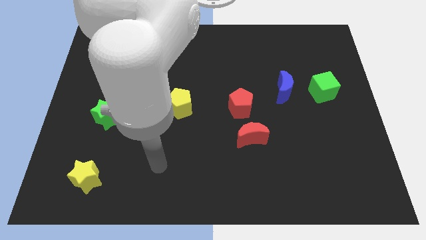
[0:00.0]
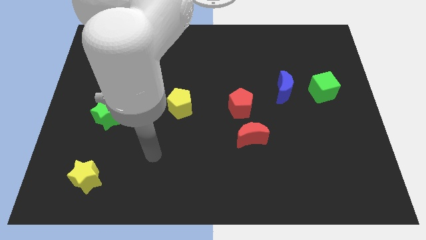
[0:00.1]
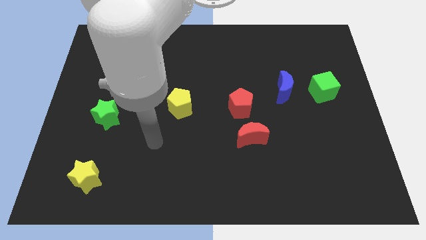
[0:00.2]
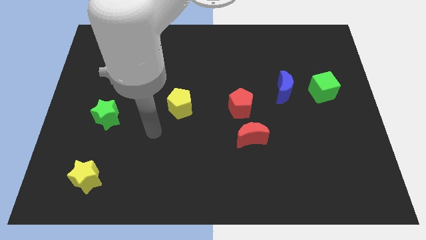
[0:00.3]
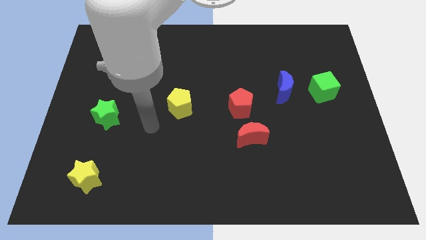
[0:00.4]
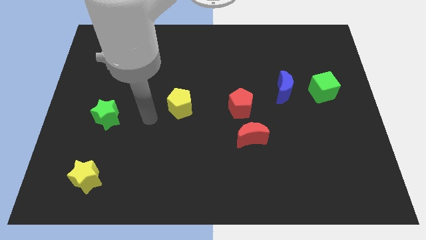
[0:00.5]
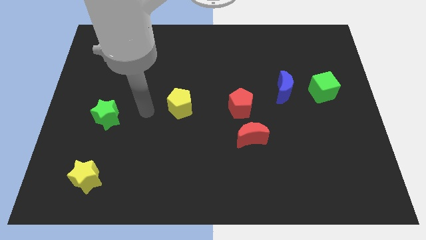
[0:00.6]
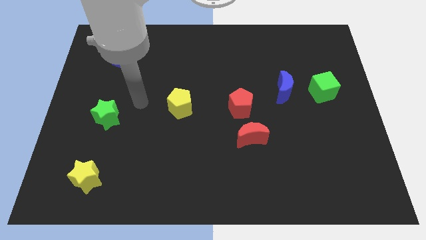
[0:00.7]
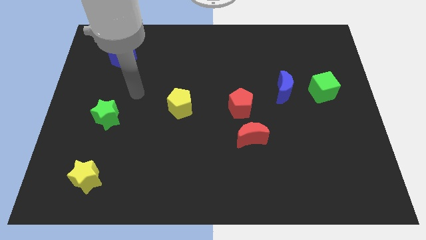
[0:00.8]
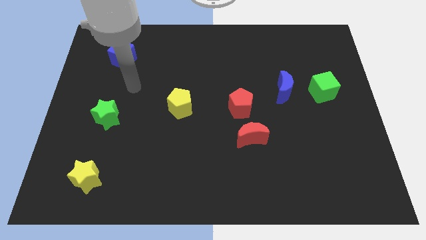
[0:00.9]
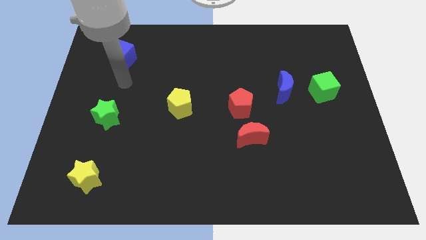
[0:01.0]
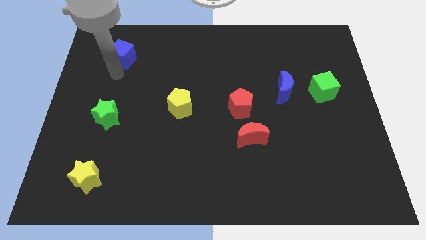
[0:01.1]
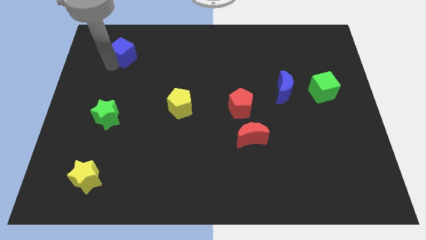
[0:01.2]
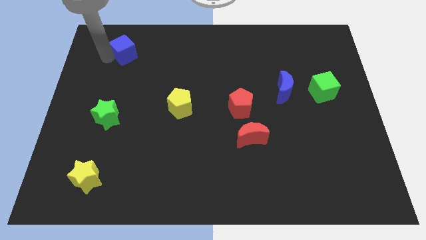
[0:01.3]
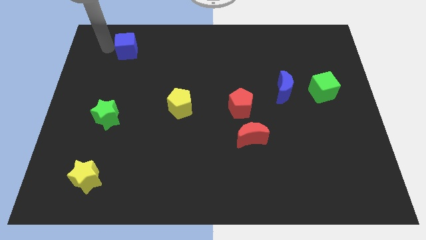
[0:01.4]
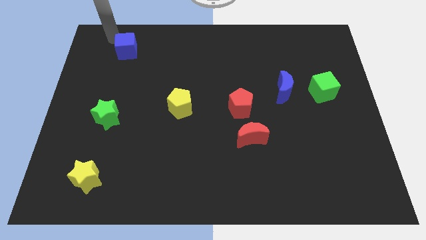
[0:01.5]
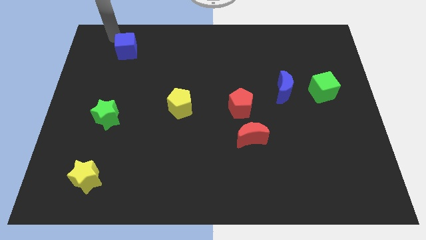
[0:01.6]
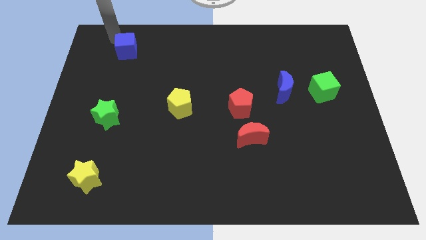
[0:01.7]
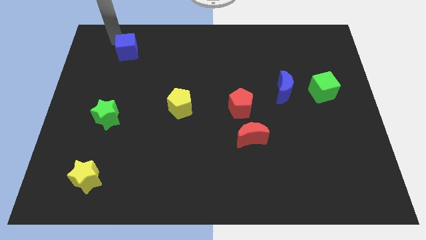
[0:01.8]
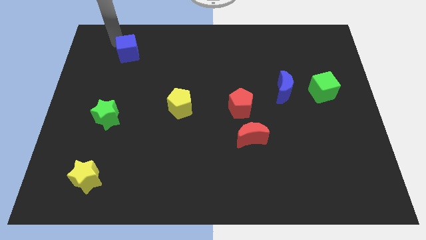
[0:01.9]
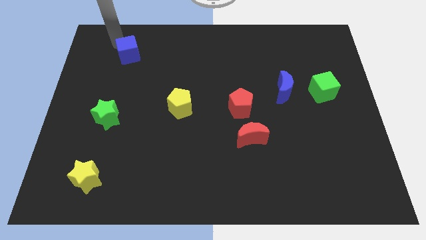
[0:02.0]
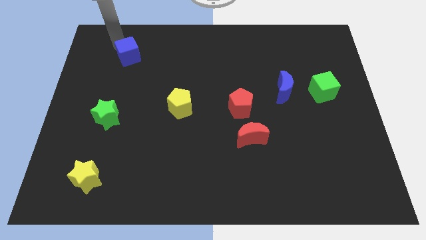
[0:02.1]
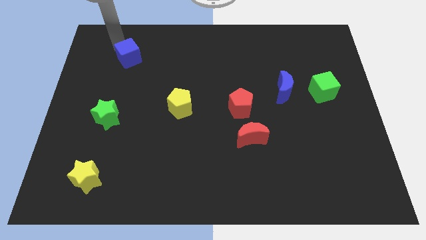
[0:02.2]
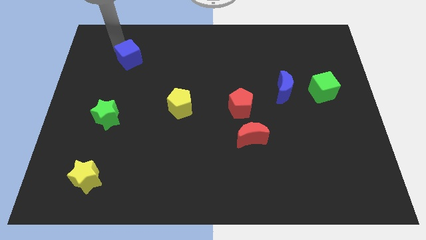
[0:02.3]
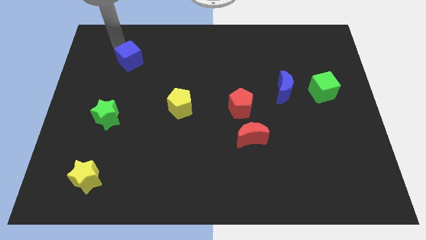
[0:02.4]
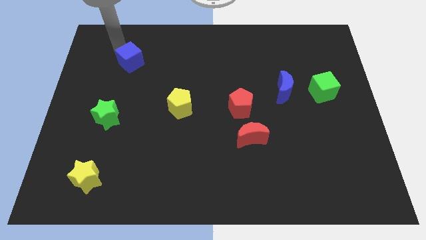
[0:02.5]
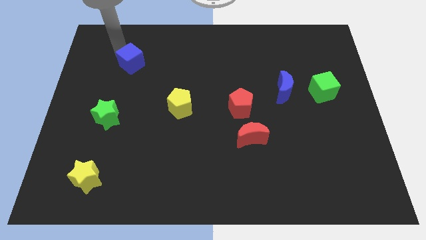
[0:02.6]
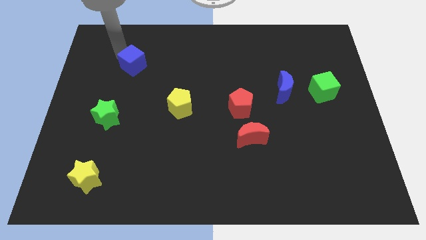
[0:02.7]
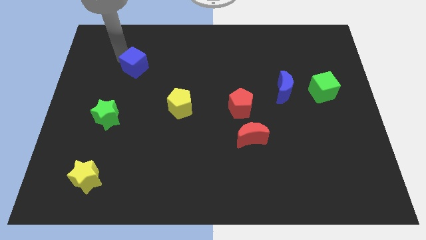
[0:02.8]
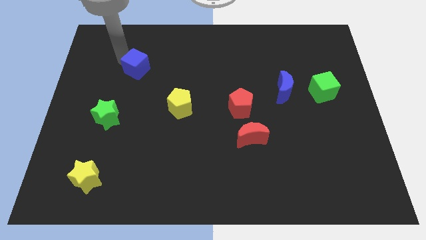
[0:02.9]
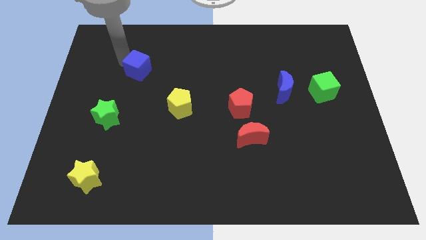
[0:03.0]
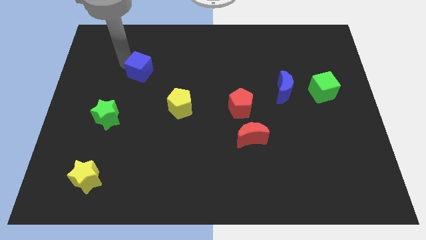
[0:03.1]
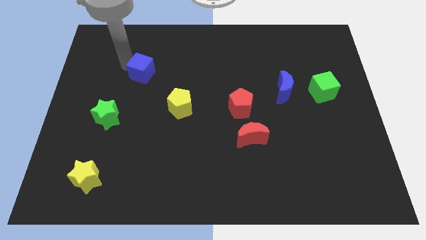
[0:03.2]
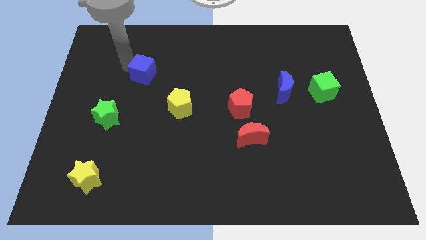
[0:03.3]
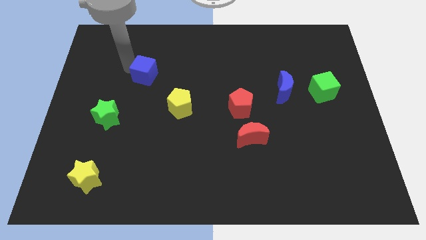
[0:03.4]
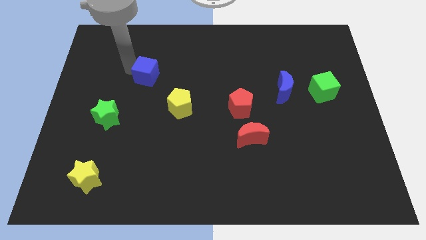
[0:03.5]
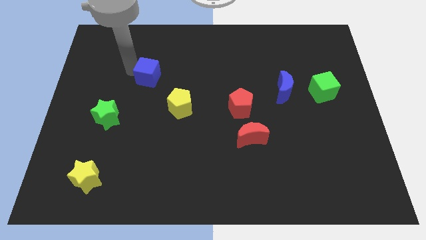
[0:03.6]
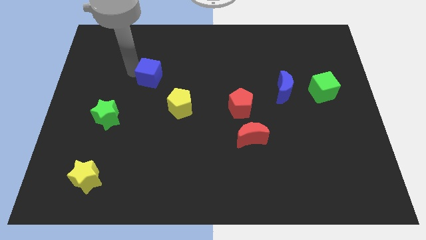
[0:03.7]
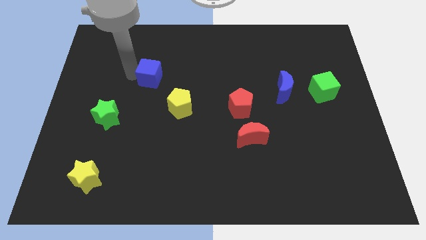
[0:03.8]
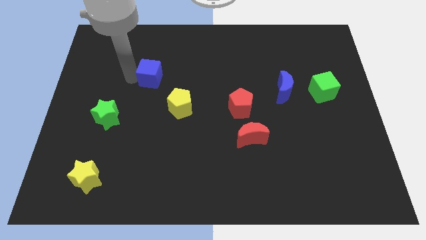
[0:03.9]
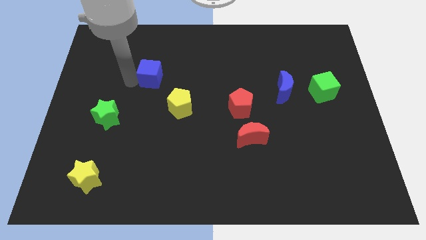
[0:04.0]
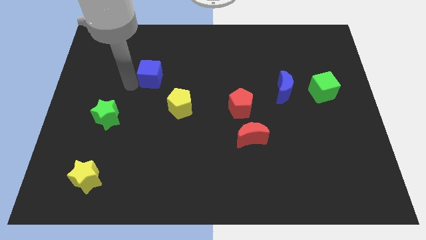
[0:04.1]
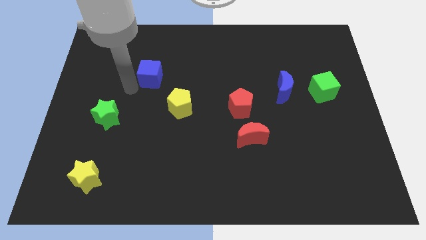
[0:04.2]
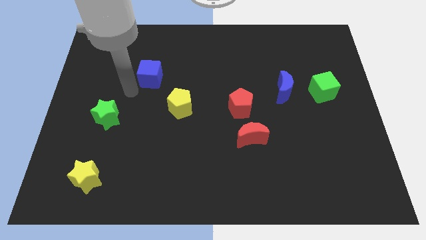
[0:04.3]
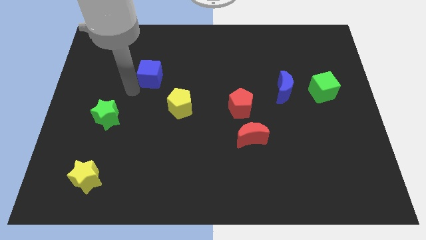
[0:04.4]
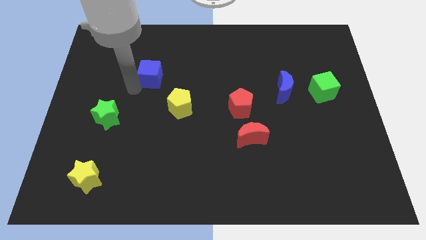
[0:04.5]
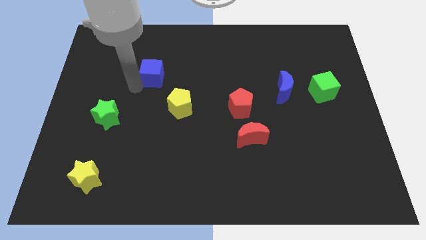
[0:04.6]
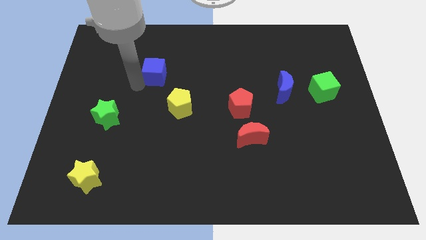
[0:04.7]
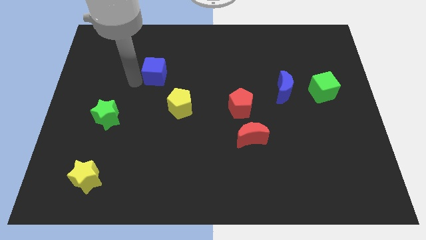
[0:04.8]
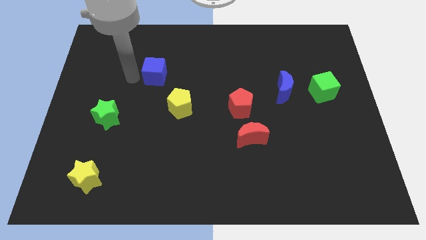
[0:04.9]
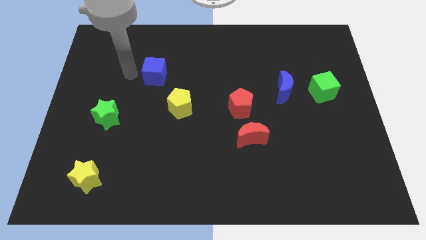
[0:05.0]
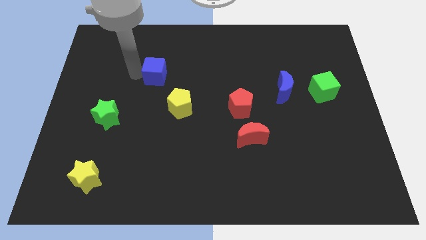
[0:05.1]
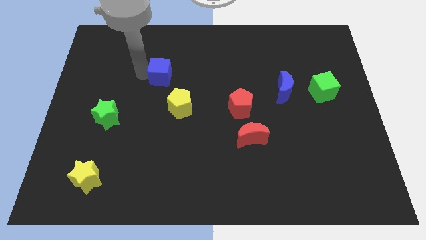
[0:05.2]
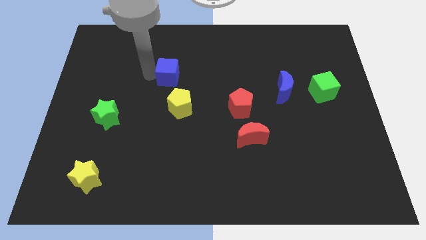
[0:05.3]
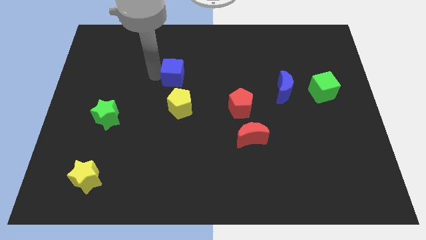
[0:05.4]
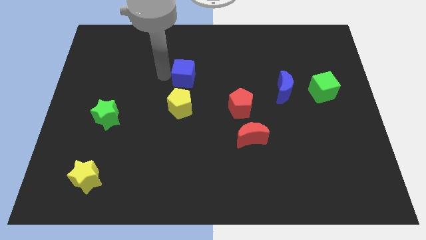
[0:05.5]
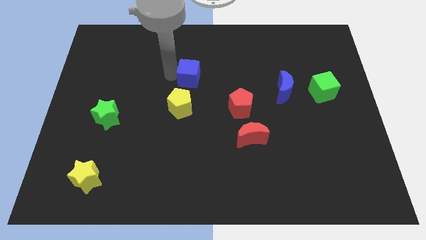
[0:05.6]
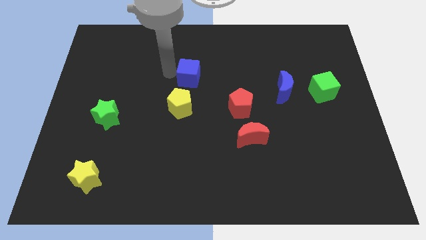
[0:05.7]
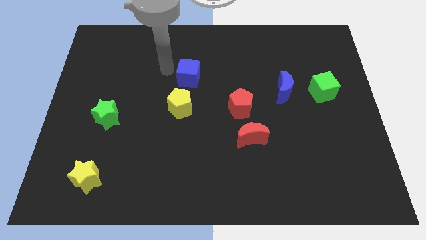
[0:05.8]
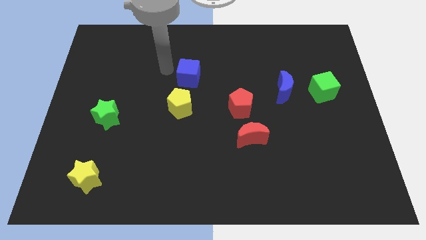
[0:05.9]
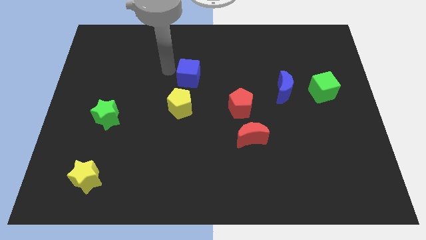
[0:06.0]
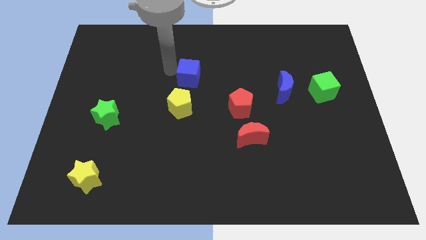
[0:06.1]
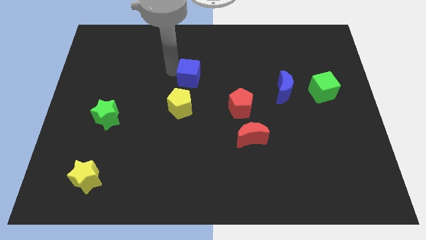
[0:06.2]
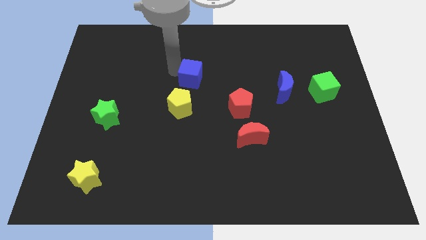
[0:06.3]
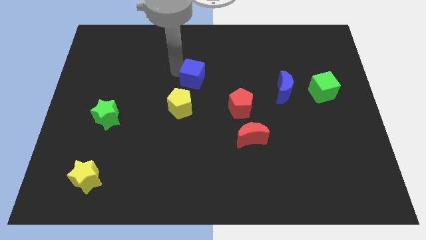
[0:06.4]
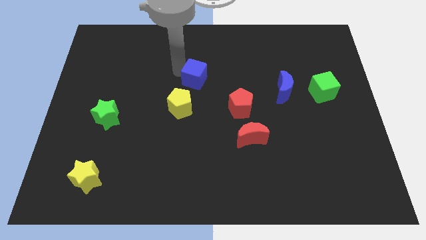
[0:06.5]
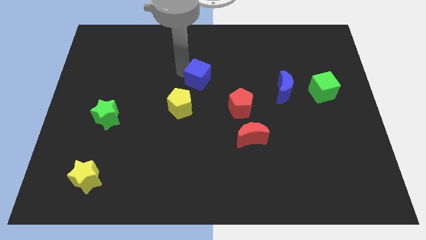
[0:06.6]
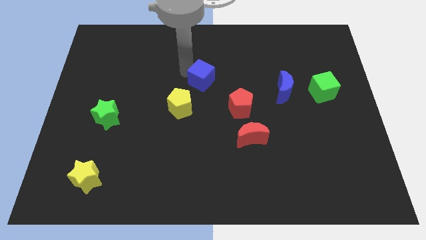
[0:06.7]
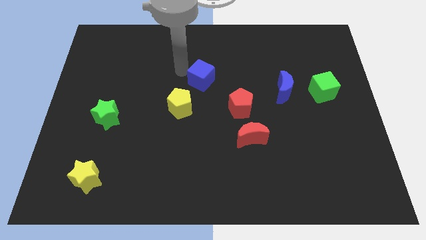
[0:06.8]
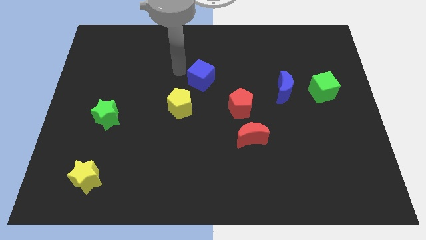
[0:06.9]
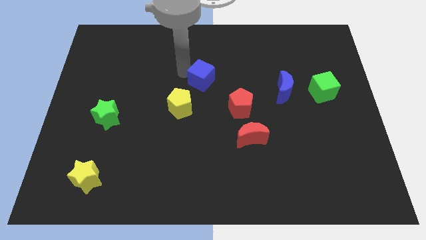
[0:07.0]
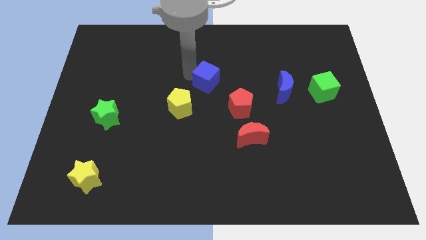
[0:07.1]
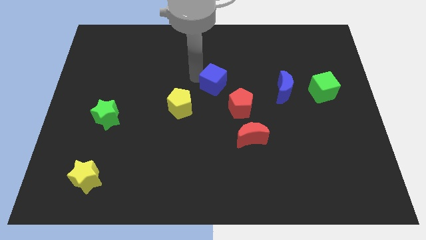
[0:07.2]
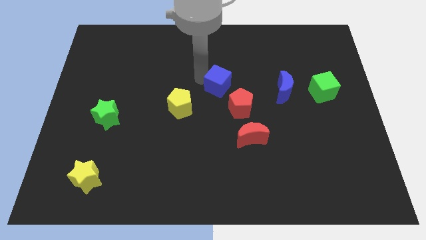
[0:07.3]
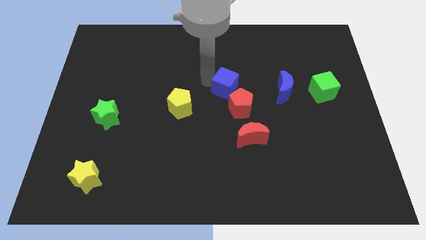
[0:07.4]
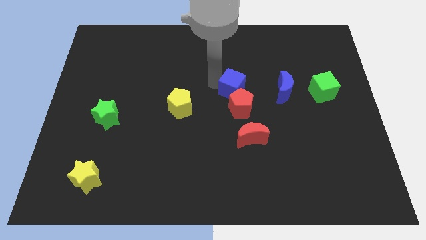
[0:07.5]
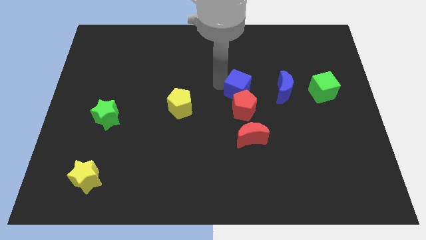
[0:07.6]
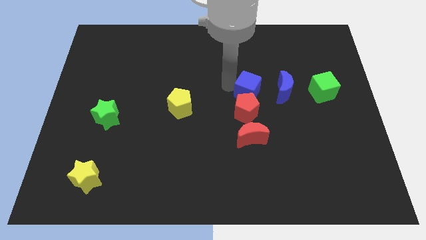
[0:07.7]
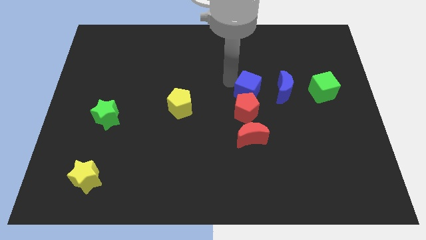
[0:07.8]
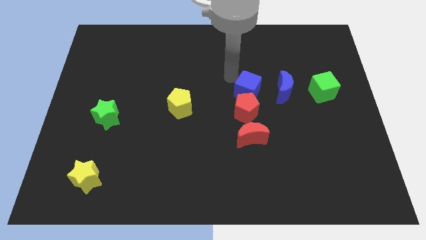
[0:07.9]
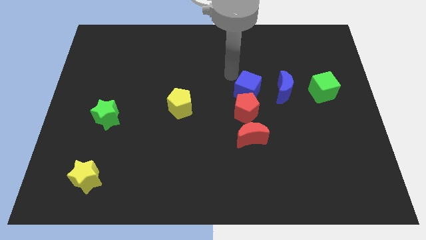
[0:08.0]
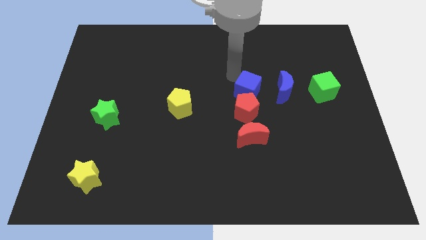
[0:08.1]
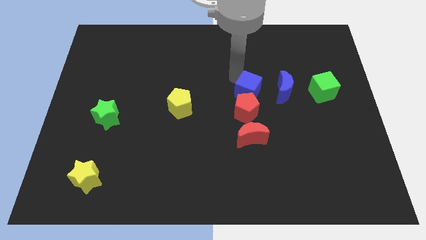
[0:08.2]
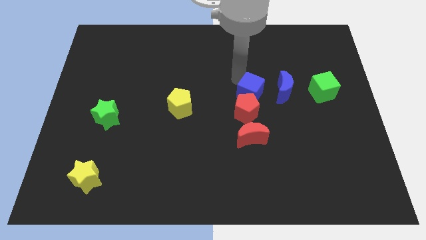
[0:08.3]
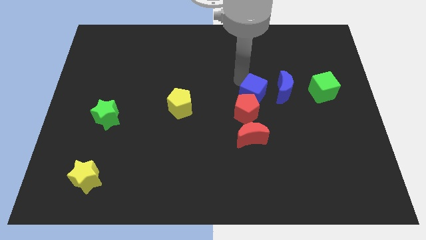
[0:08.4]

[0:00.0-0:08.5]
slide the blue cube diagonally down and to the left of the blue moon
